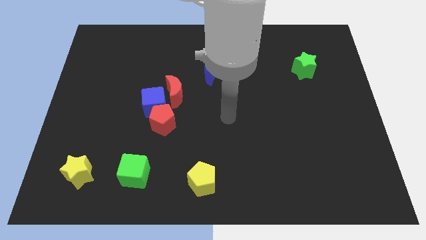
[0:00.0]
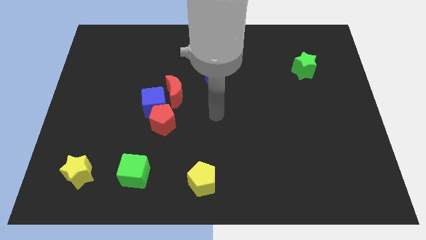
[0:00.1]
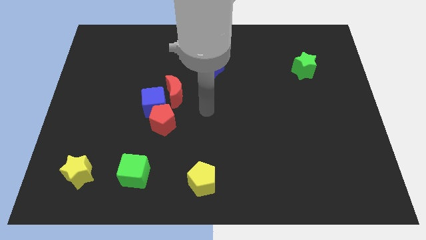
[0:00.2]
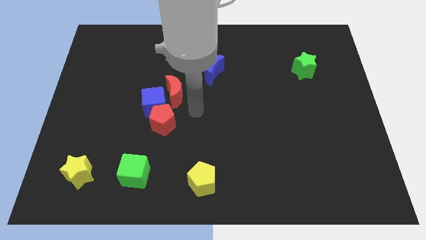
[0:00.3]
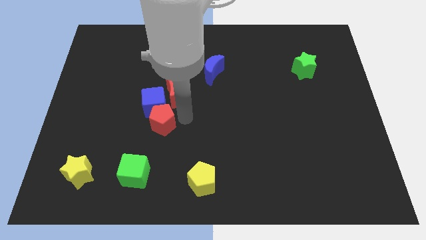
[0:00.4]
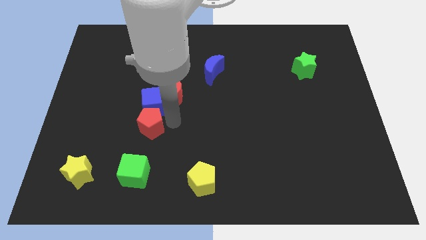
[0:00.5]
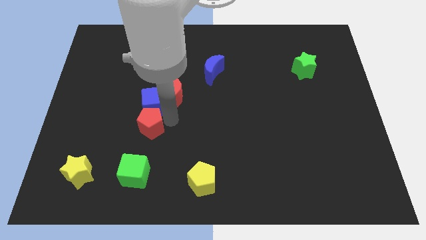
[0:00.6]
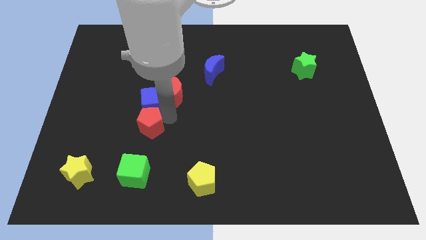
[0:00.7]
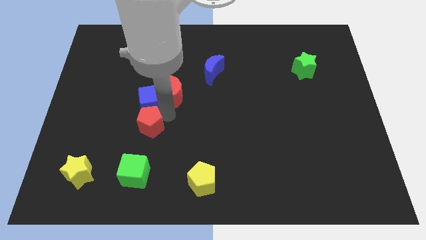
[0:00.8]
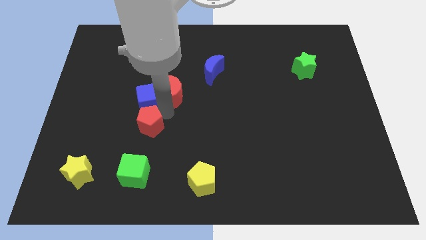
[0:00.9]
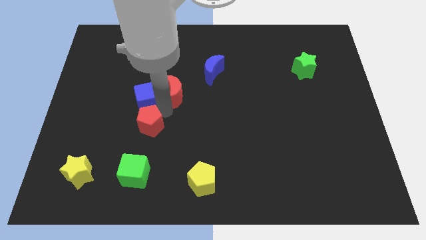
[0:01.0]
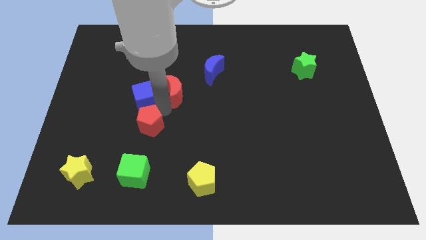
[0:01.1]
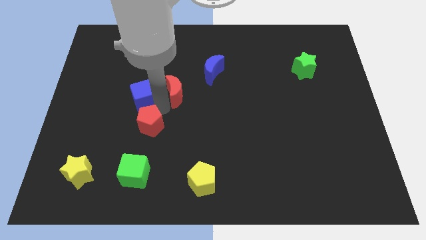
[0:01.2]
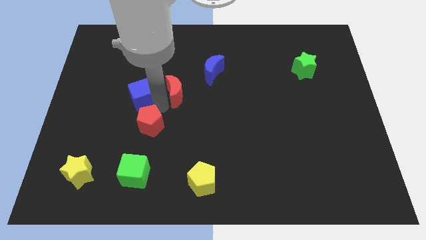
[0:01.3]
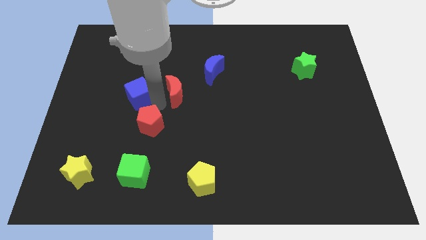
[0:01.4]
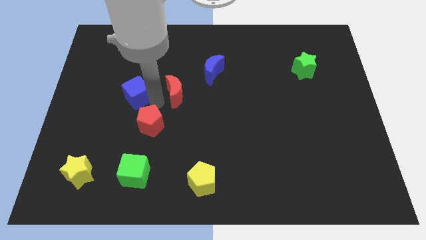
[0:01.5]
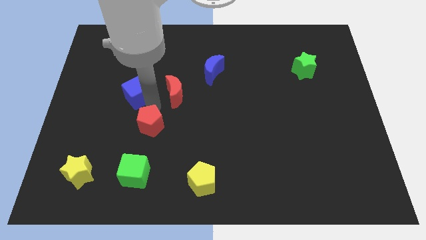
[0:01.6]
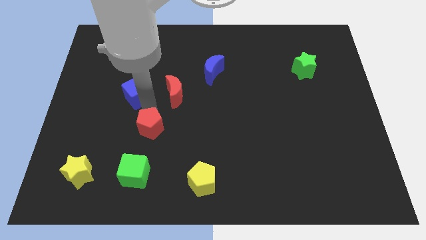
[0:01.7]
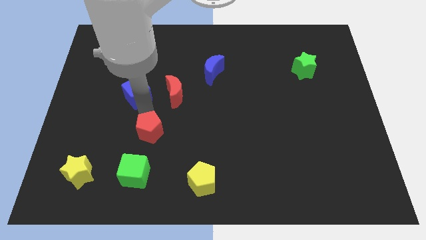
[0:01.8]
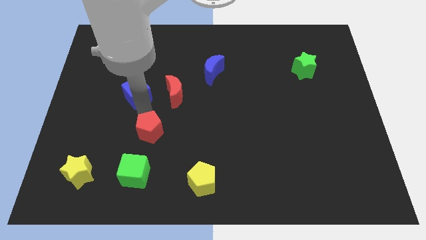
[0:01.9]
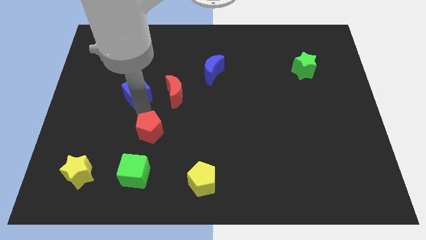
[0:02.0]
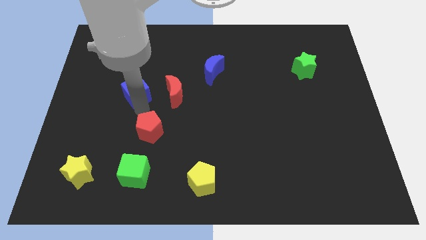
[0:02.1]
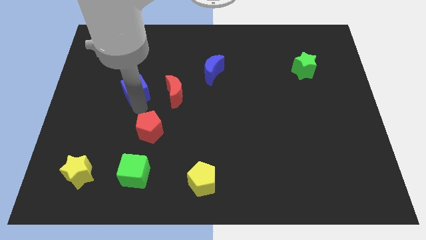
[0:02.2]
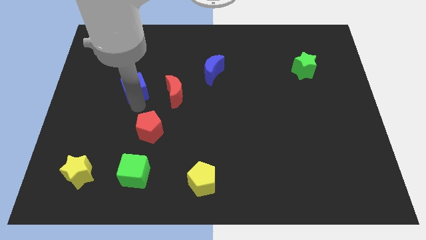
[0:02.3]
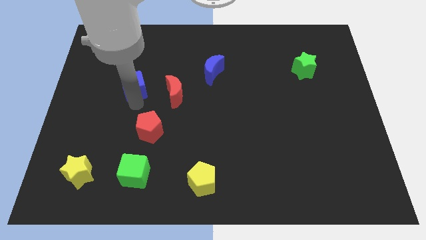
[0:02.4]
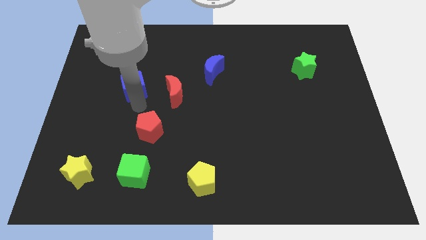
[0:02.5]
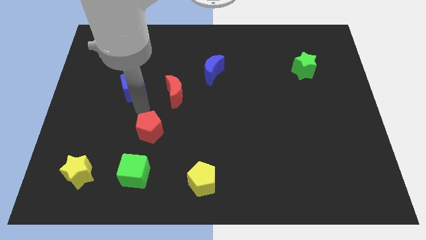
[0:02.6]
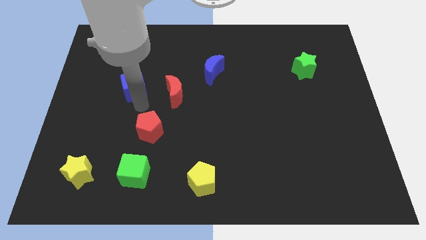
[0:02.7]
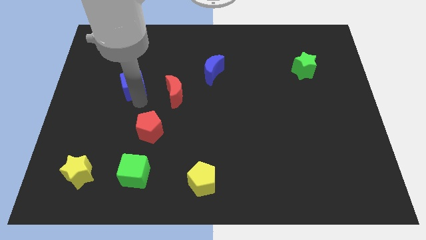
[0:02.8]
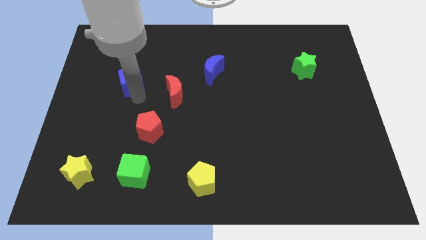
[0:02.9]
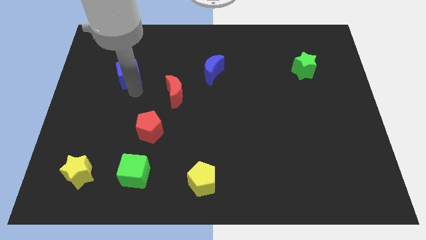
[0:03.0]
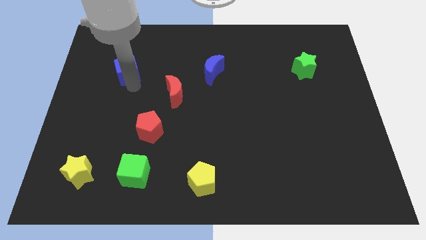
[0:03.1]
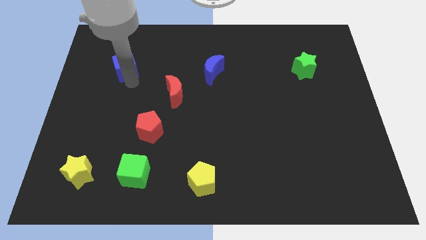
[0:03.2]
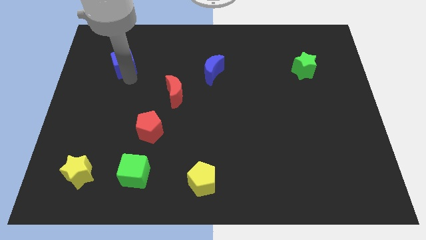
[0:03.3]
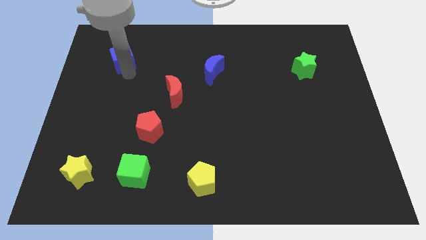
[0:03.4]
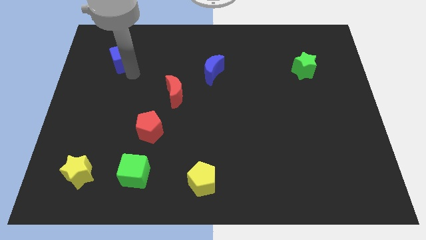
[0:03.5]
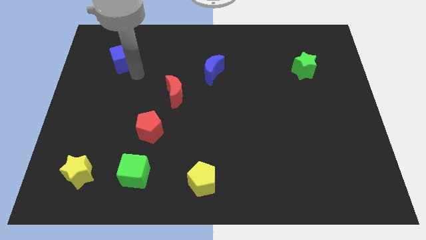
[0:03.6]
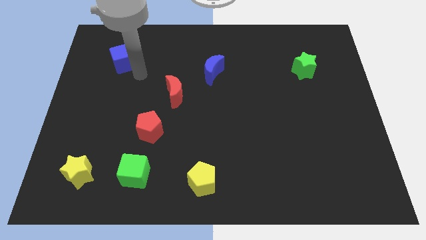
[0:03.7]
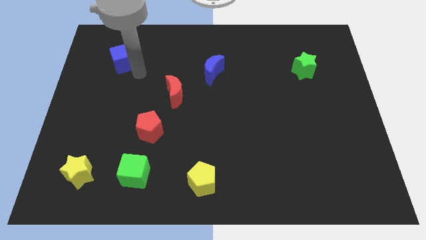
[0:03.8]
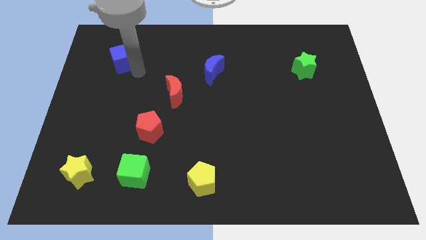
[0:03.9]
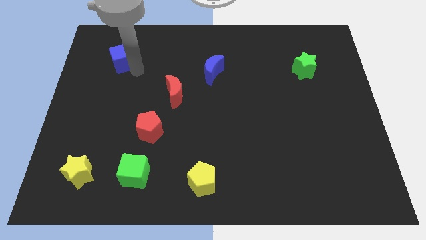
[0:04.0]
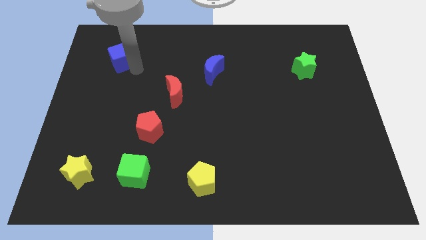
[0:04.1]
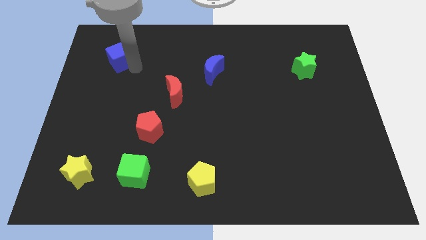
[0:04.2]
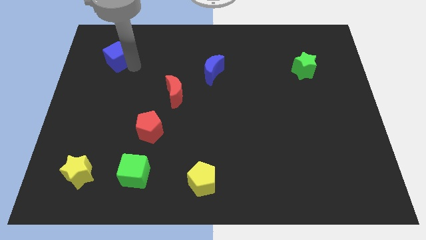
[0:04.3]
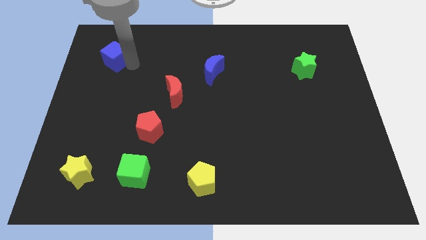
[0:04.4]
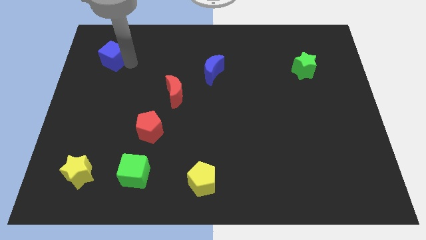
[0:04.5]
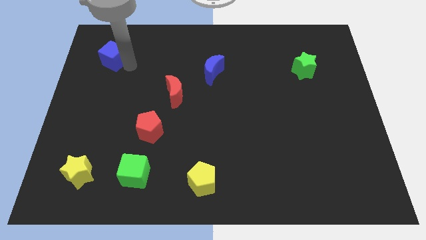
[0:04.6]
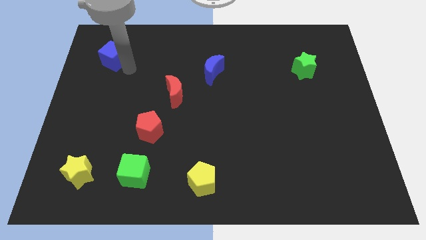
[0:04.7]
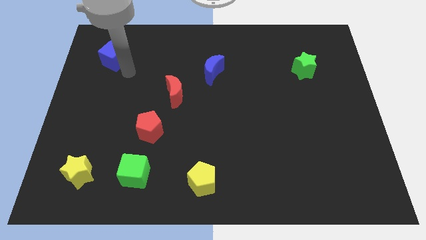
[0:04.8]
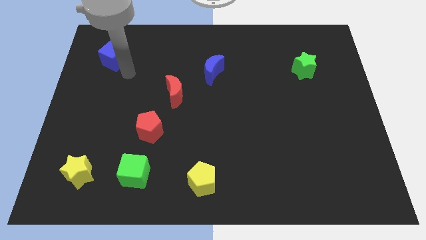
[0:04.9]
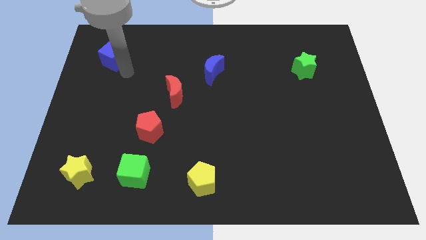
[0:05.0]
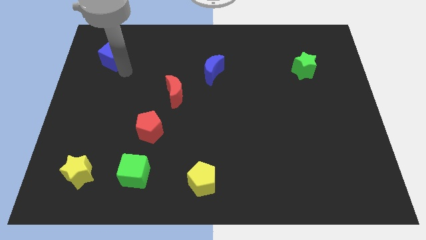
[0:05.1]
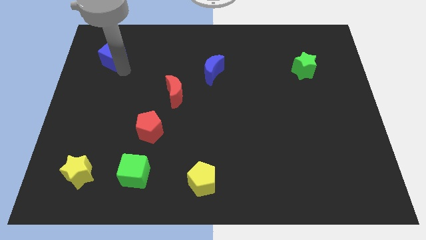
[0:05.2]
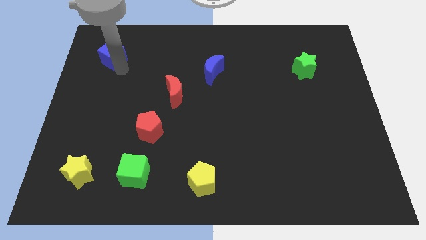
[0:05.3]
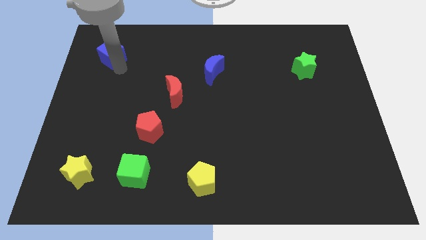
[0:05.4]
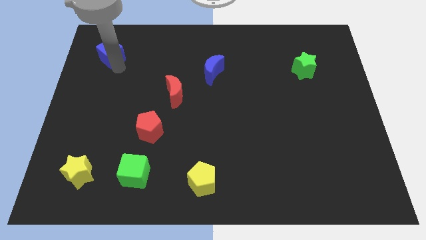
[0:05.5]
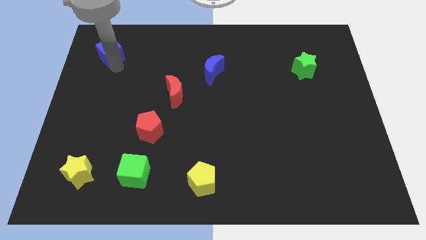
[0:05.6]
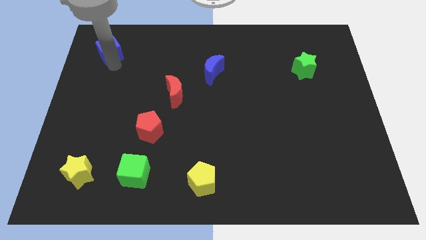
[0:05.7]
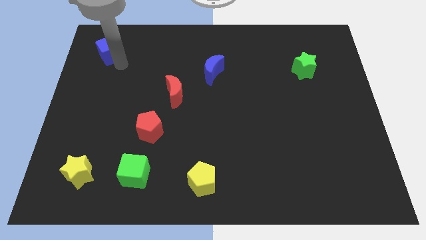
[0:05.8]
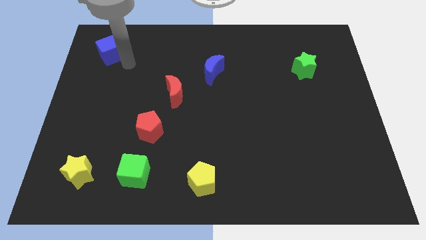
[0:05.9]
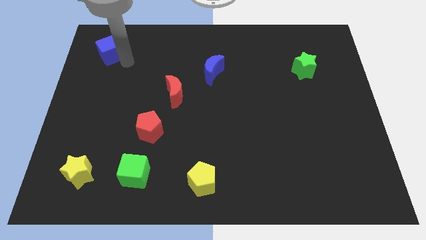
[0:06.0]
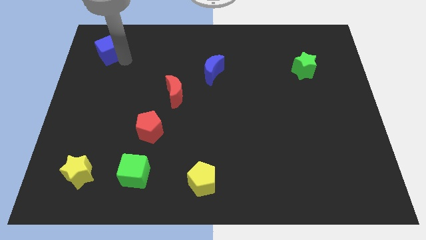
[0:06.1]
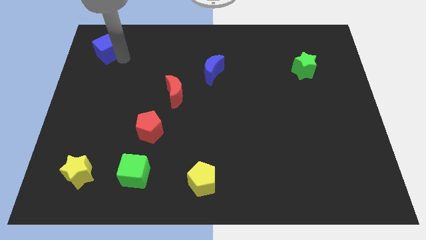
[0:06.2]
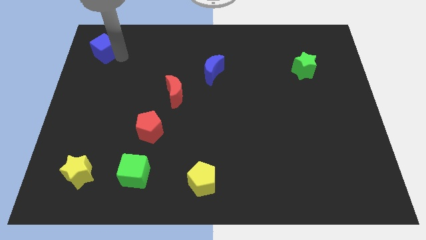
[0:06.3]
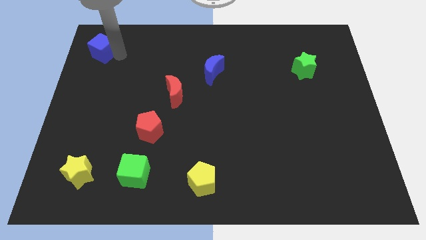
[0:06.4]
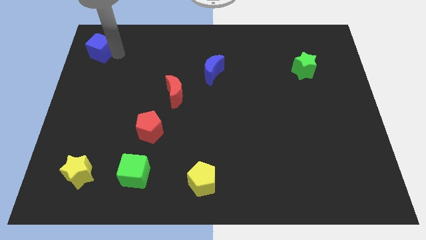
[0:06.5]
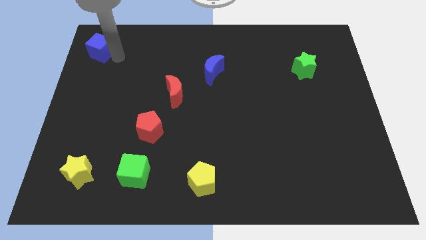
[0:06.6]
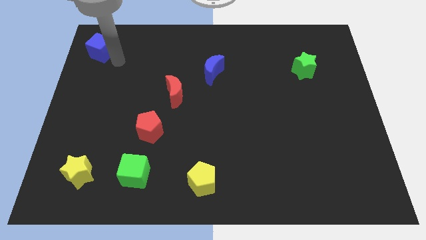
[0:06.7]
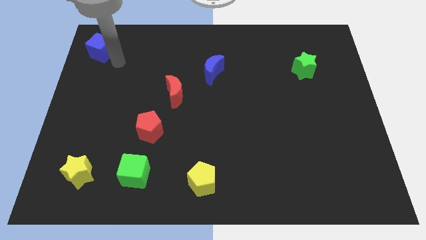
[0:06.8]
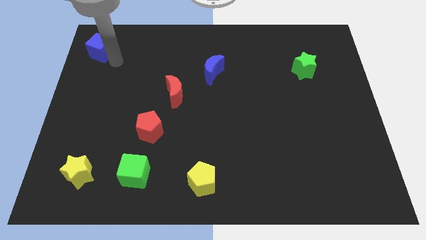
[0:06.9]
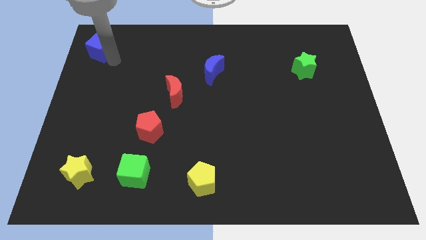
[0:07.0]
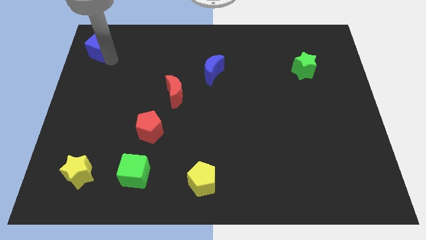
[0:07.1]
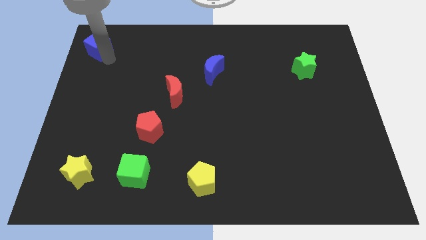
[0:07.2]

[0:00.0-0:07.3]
move the blue cube to the top left corner
